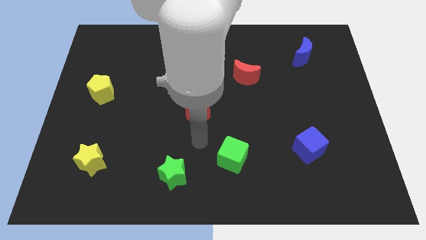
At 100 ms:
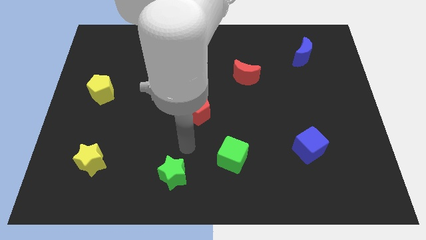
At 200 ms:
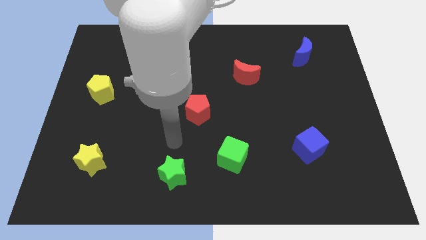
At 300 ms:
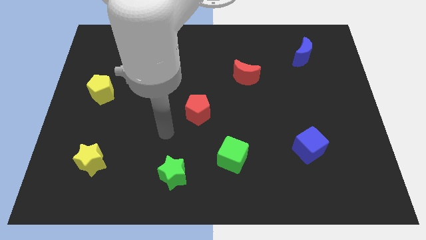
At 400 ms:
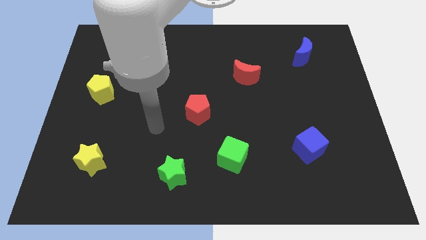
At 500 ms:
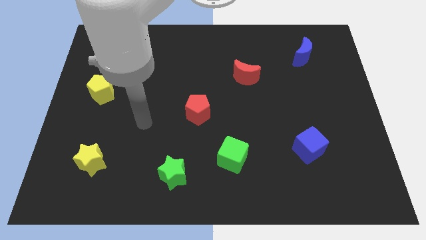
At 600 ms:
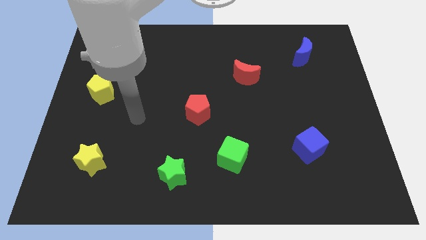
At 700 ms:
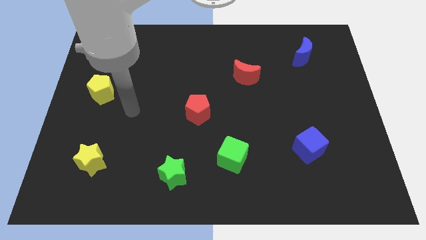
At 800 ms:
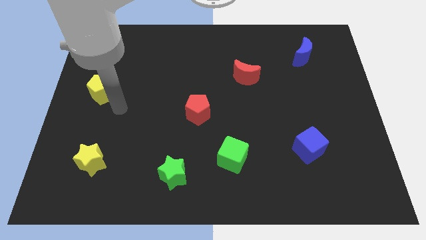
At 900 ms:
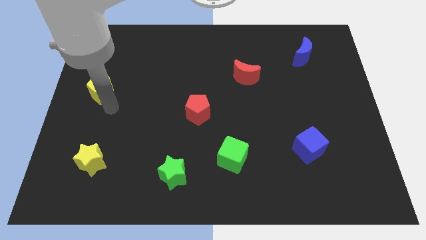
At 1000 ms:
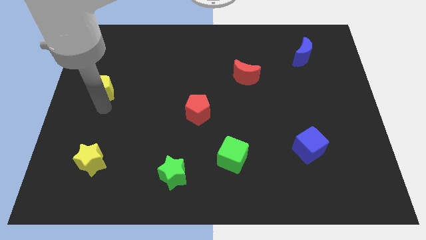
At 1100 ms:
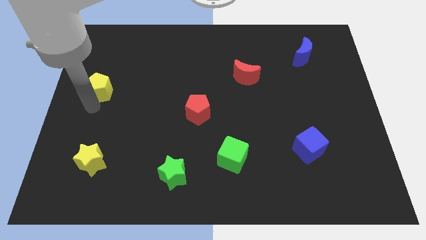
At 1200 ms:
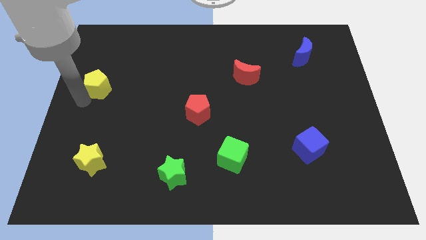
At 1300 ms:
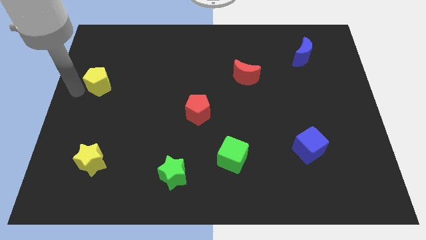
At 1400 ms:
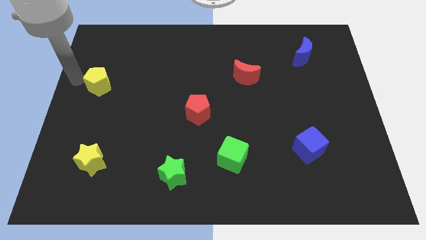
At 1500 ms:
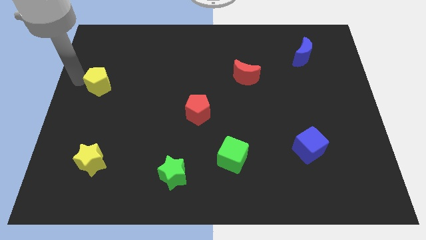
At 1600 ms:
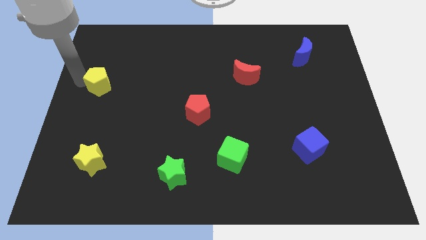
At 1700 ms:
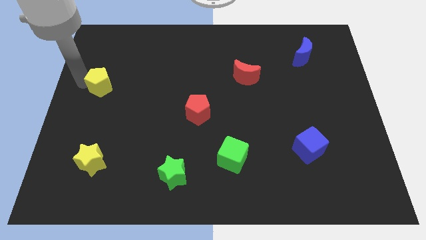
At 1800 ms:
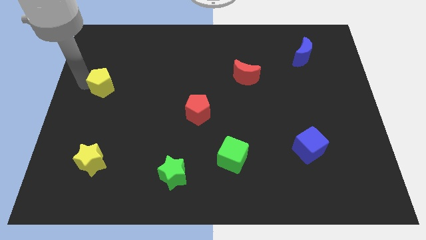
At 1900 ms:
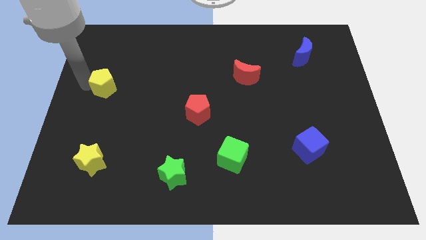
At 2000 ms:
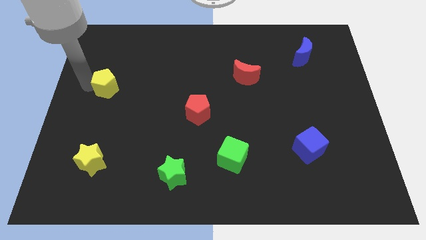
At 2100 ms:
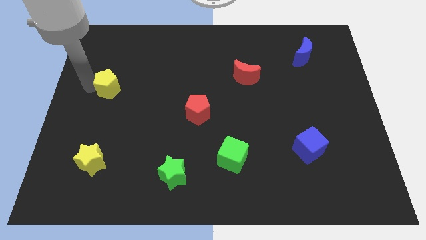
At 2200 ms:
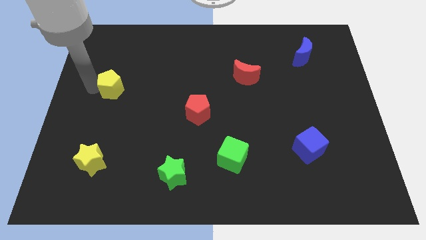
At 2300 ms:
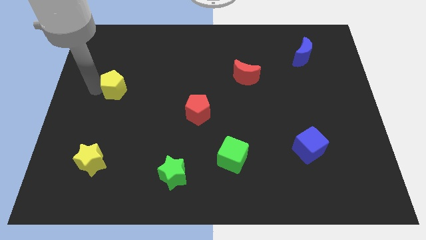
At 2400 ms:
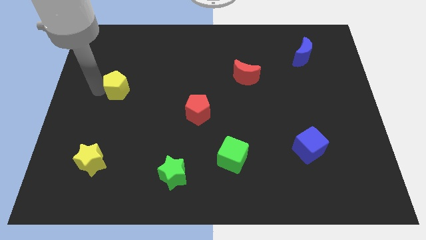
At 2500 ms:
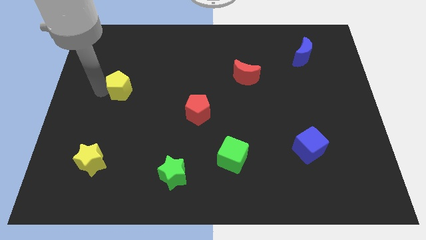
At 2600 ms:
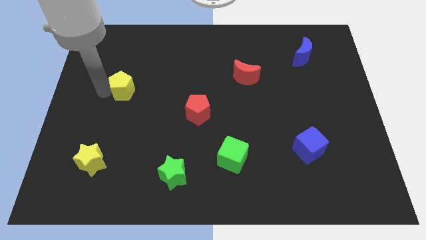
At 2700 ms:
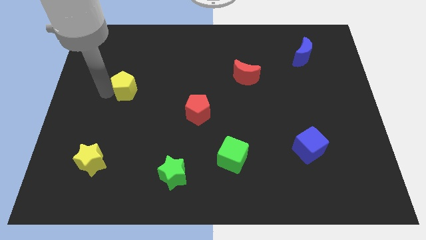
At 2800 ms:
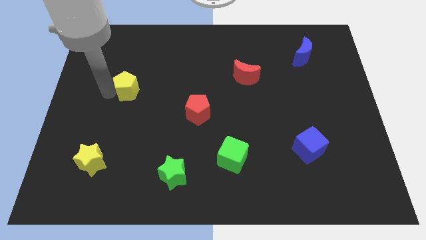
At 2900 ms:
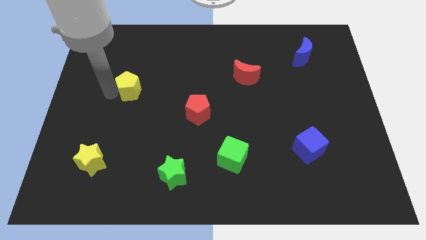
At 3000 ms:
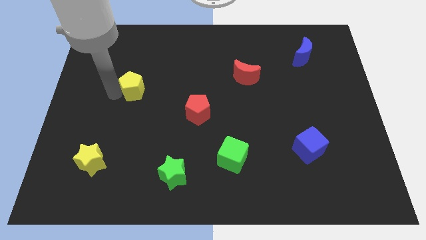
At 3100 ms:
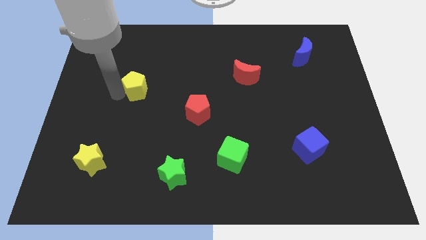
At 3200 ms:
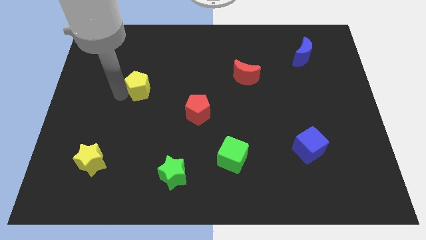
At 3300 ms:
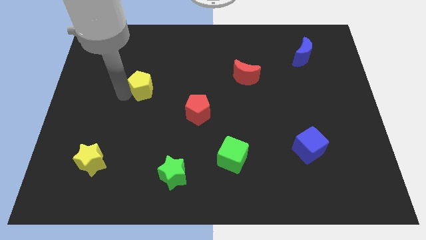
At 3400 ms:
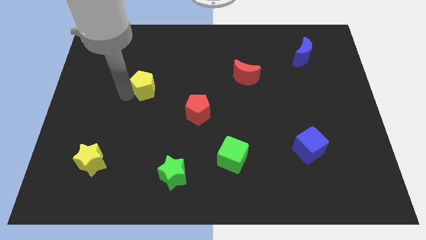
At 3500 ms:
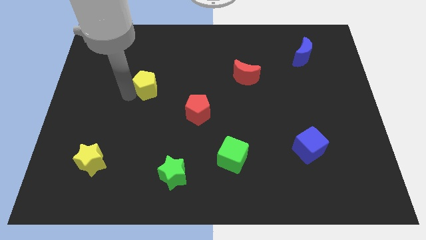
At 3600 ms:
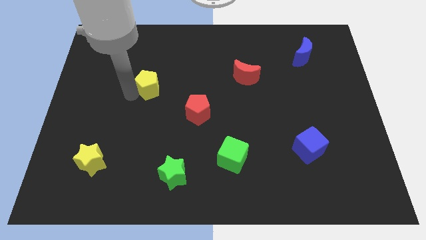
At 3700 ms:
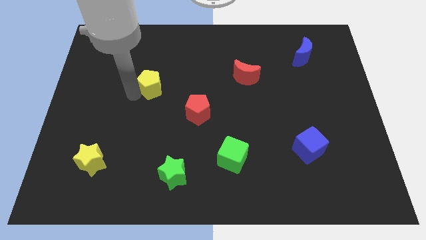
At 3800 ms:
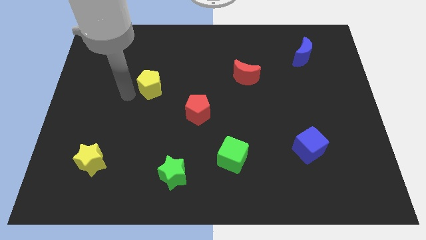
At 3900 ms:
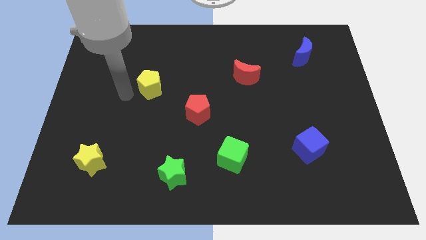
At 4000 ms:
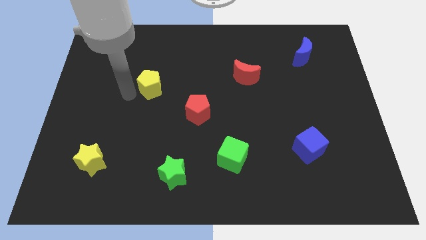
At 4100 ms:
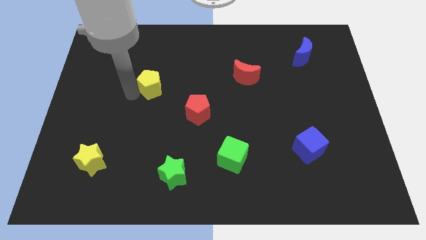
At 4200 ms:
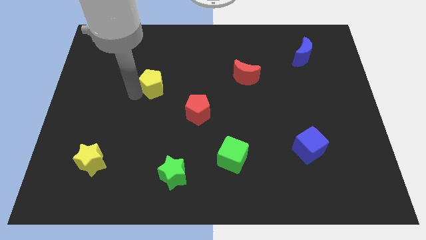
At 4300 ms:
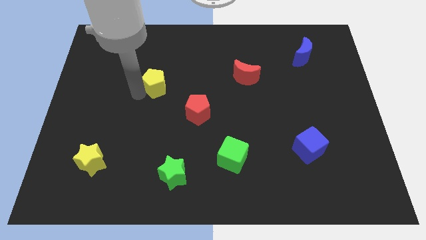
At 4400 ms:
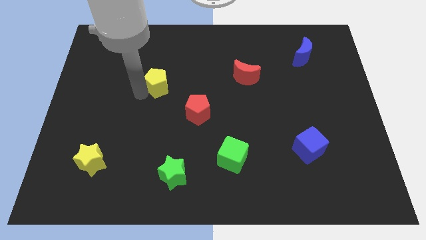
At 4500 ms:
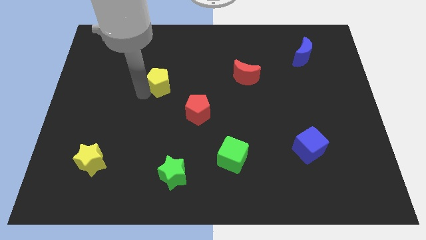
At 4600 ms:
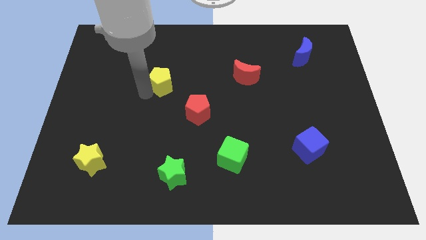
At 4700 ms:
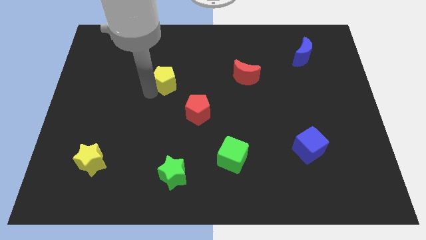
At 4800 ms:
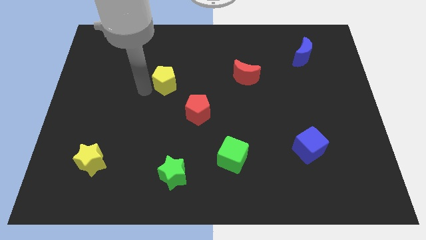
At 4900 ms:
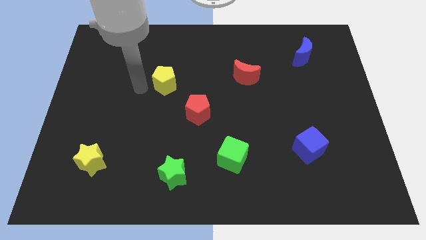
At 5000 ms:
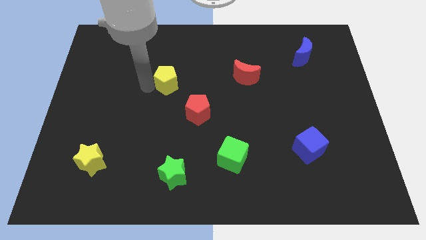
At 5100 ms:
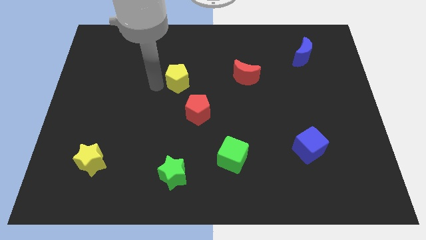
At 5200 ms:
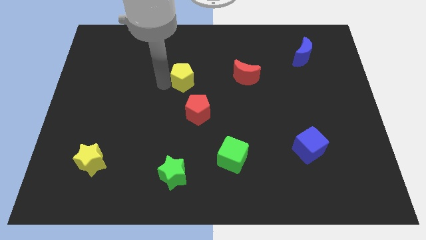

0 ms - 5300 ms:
push the yellow pentagon left of the red moon

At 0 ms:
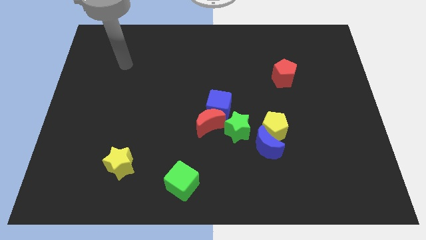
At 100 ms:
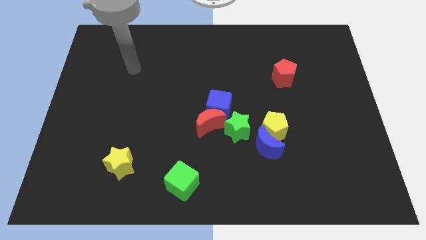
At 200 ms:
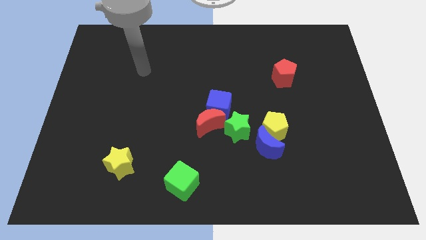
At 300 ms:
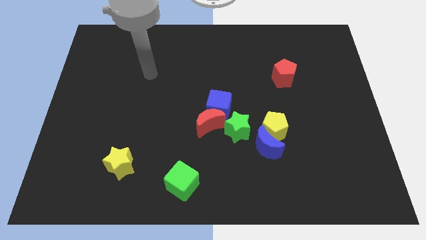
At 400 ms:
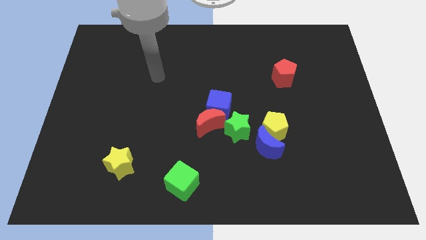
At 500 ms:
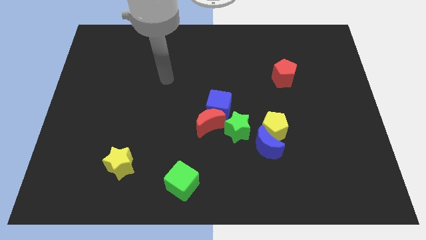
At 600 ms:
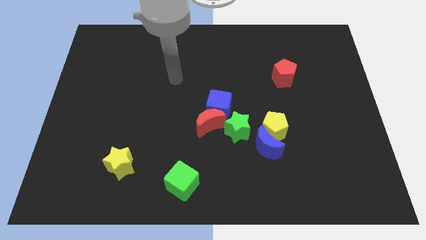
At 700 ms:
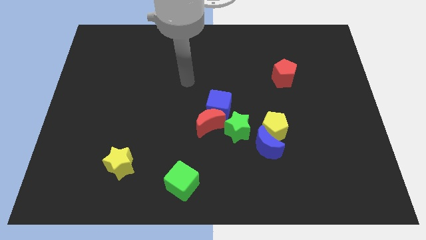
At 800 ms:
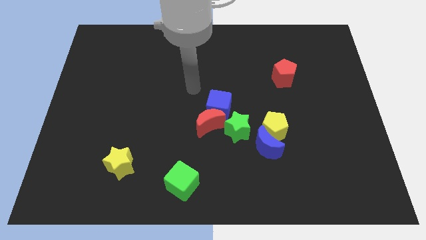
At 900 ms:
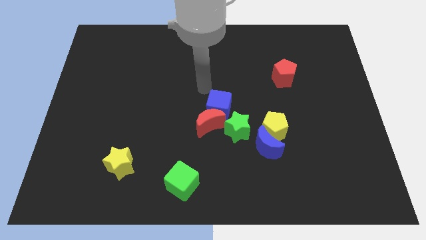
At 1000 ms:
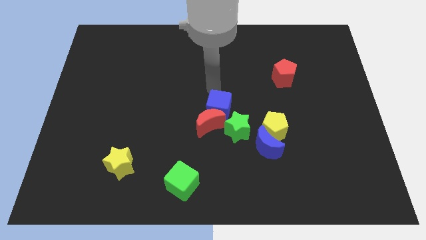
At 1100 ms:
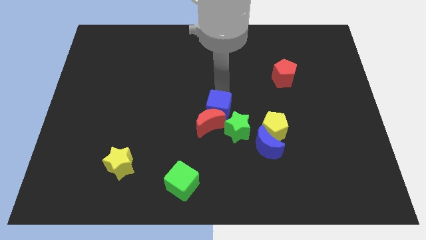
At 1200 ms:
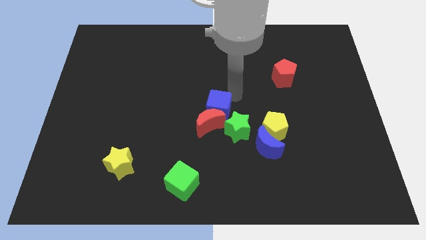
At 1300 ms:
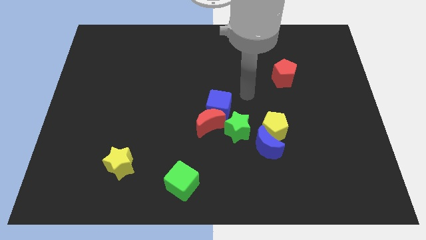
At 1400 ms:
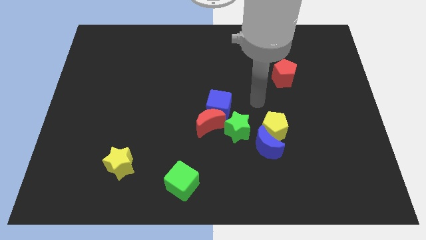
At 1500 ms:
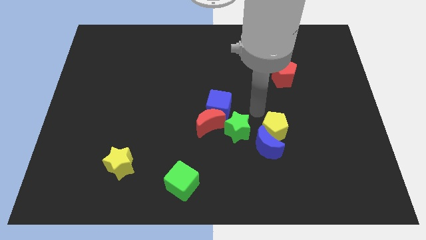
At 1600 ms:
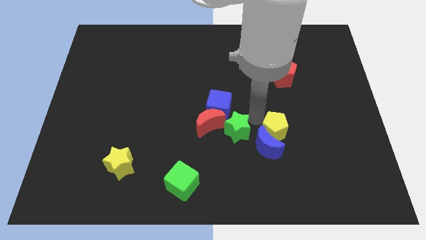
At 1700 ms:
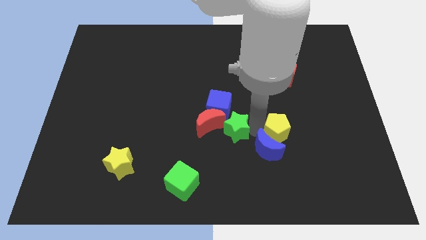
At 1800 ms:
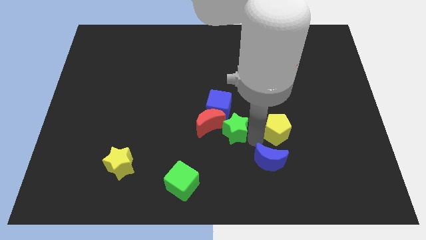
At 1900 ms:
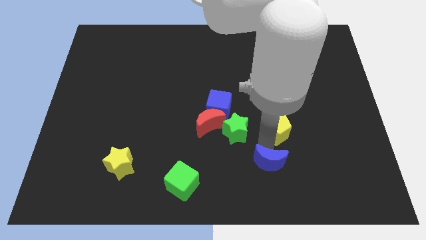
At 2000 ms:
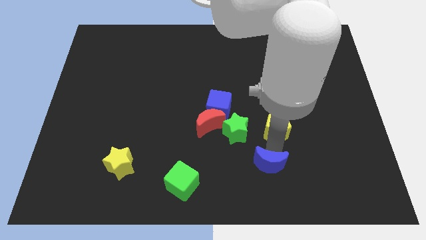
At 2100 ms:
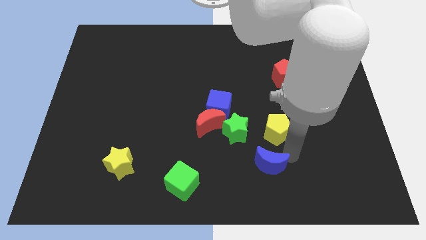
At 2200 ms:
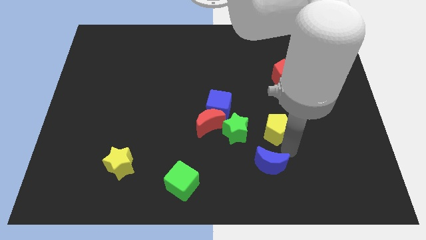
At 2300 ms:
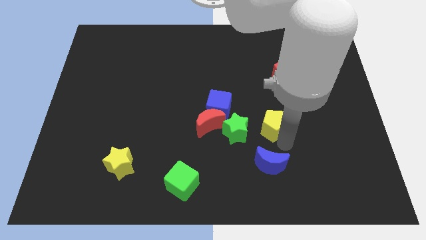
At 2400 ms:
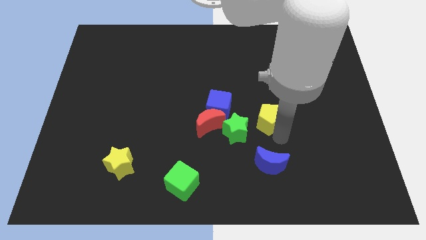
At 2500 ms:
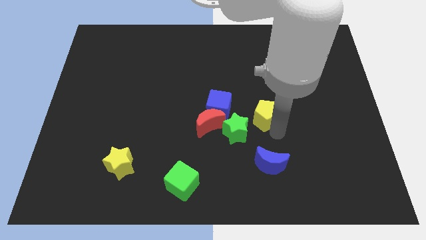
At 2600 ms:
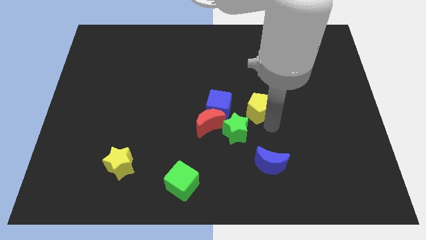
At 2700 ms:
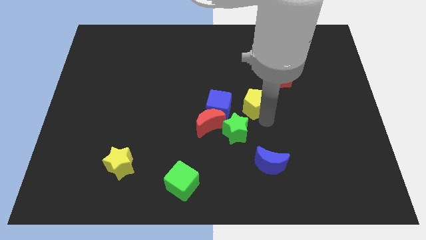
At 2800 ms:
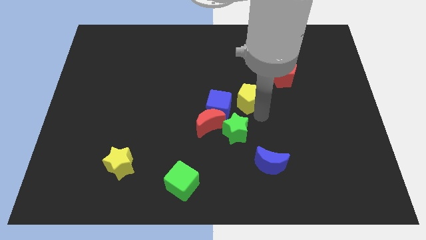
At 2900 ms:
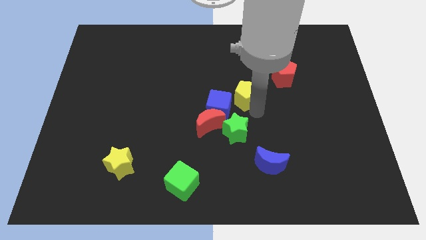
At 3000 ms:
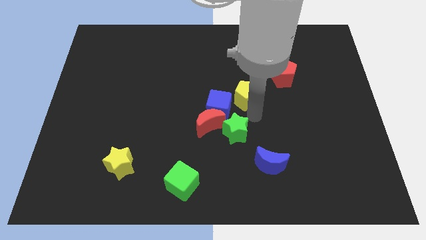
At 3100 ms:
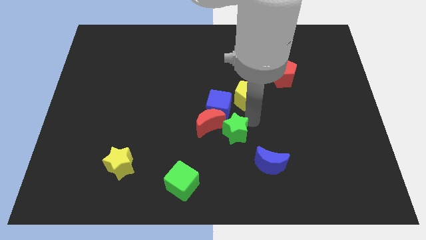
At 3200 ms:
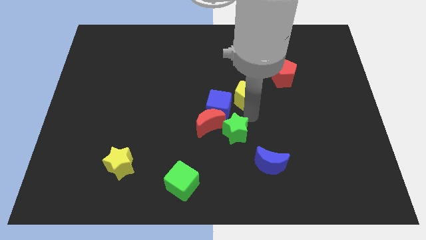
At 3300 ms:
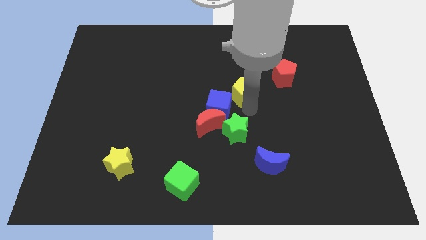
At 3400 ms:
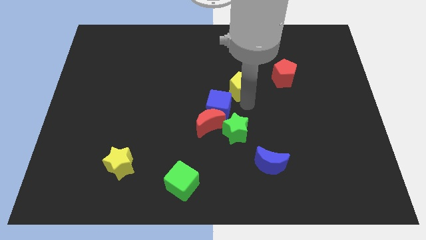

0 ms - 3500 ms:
move the yellow pentagon just left of the red pentagon
